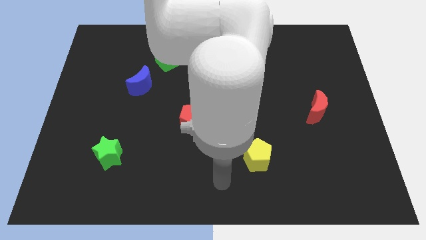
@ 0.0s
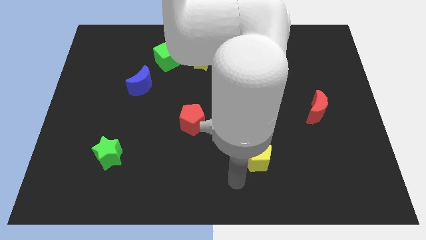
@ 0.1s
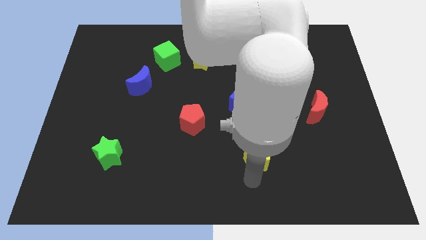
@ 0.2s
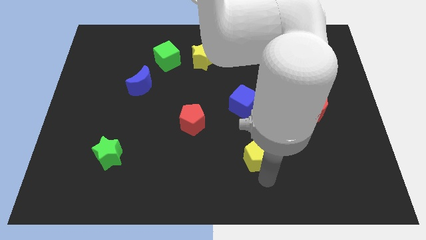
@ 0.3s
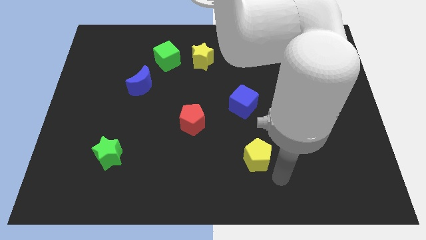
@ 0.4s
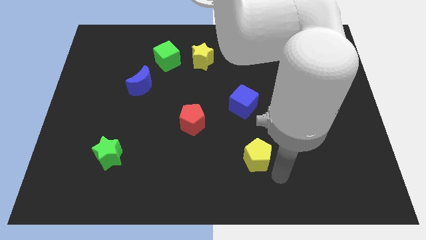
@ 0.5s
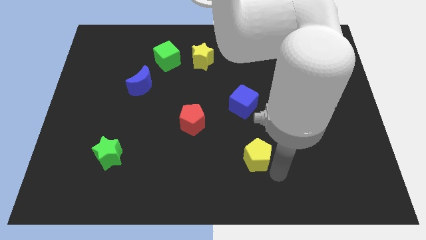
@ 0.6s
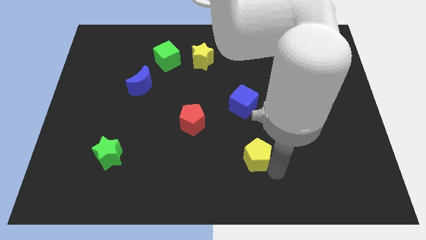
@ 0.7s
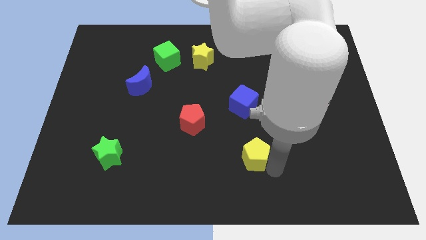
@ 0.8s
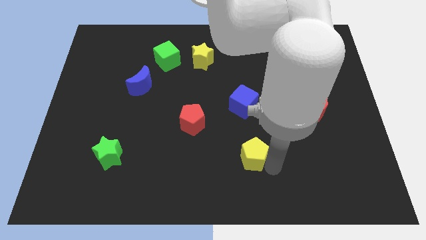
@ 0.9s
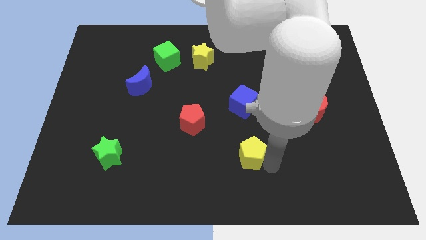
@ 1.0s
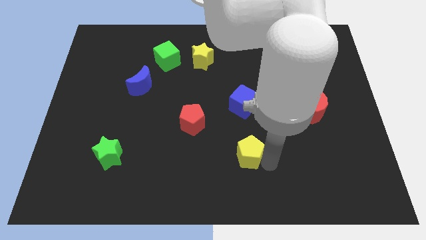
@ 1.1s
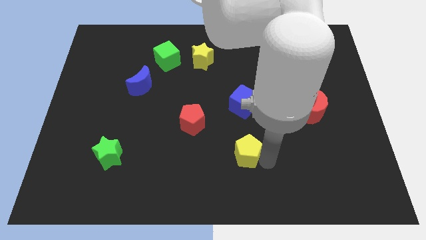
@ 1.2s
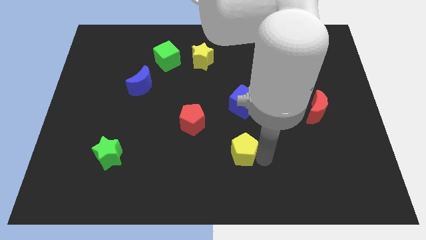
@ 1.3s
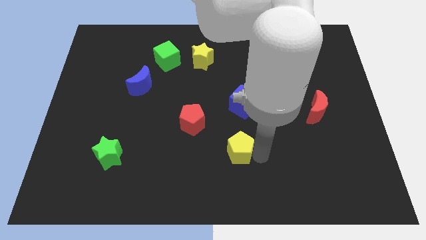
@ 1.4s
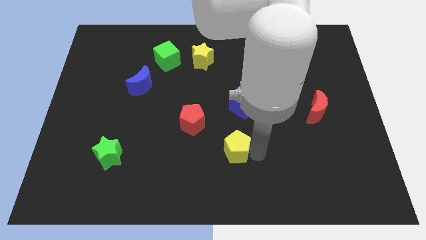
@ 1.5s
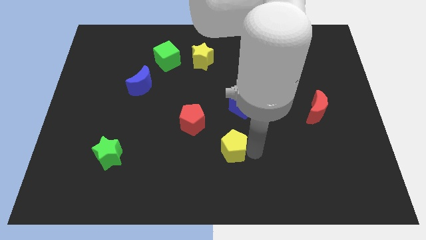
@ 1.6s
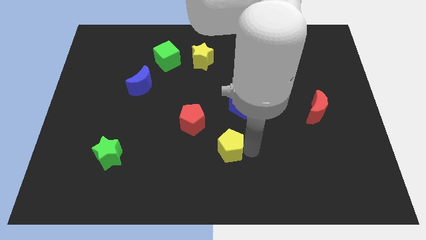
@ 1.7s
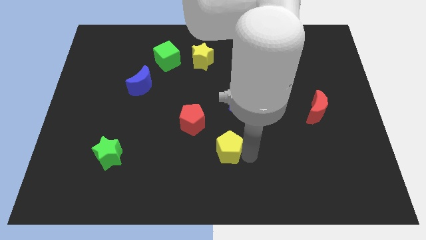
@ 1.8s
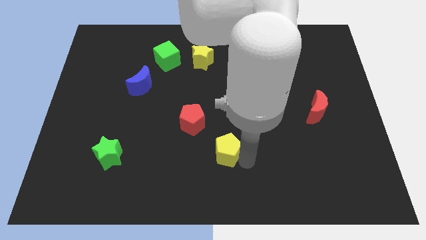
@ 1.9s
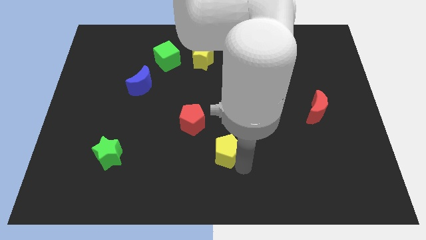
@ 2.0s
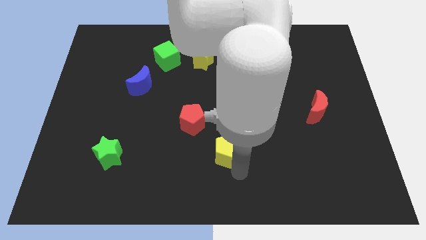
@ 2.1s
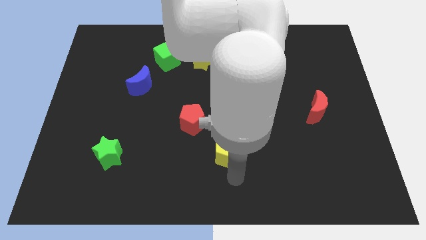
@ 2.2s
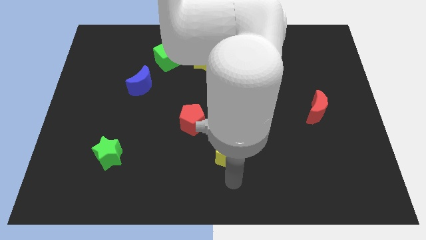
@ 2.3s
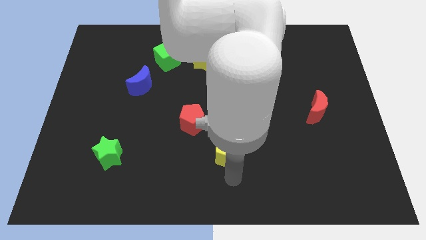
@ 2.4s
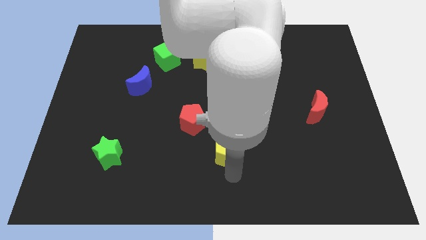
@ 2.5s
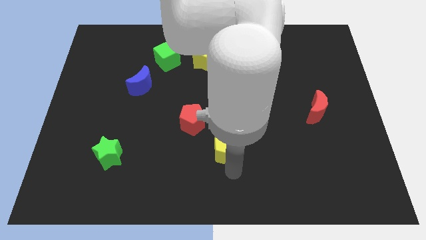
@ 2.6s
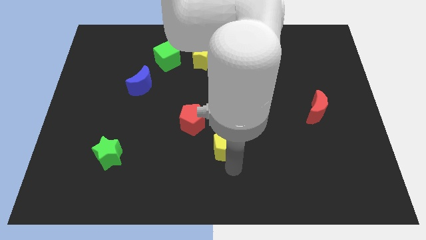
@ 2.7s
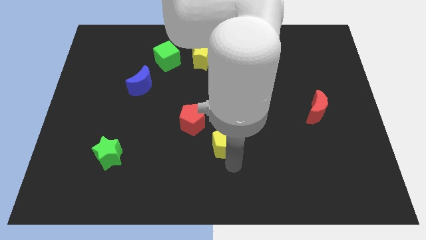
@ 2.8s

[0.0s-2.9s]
push the yellow pentagon up and to the left slightly

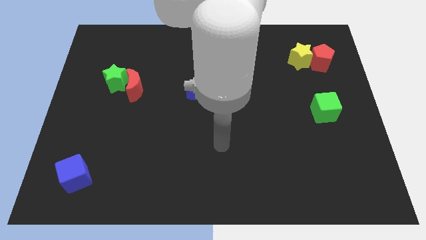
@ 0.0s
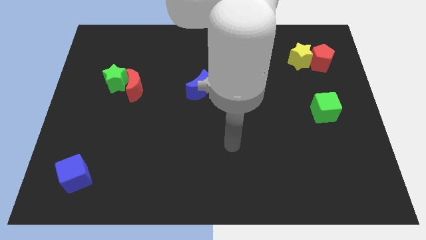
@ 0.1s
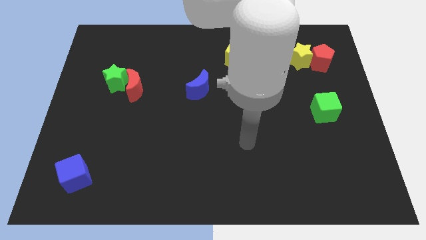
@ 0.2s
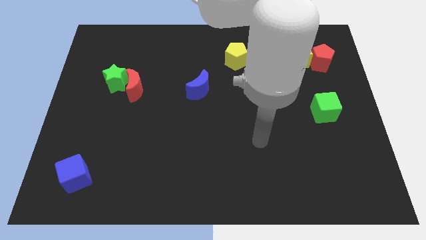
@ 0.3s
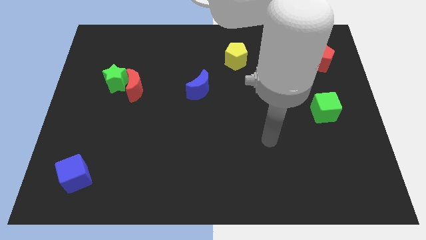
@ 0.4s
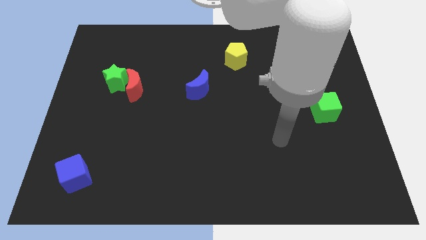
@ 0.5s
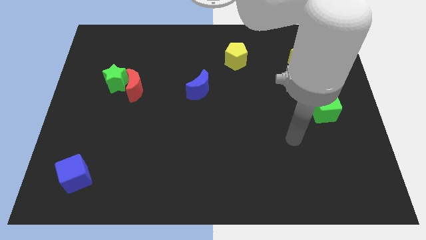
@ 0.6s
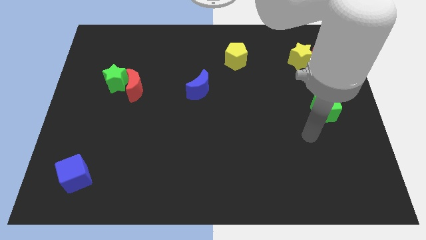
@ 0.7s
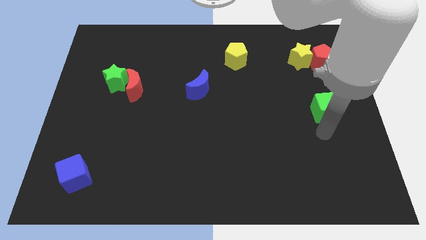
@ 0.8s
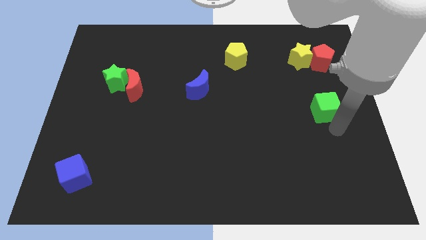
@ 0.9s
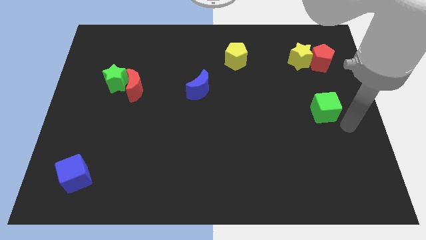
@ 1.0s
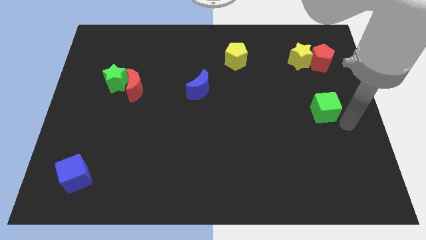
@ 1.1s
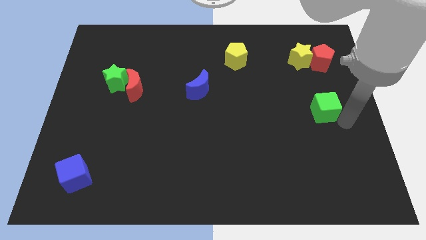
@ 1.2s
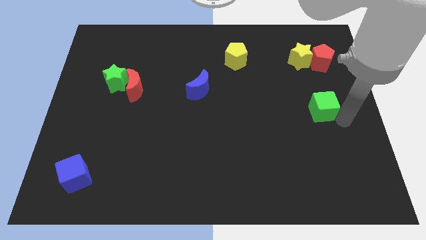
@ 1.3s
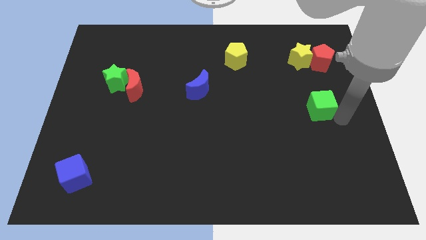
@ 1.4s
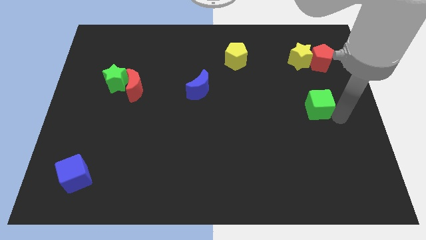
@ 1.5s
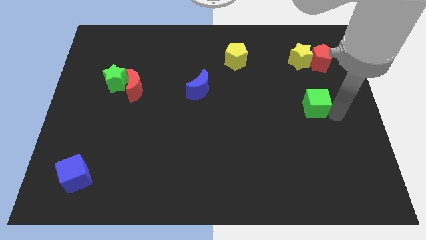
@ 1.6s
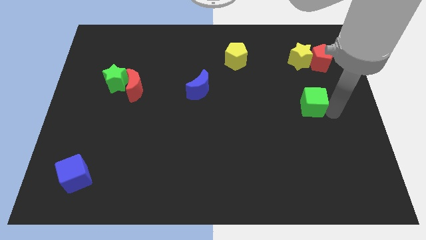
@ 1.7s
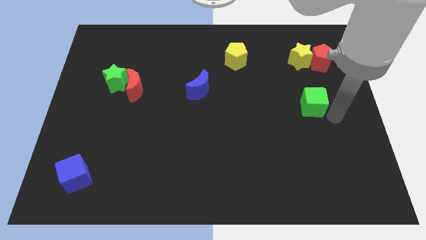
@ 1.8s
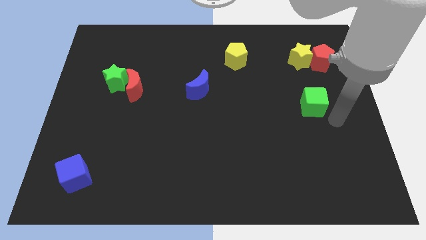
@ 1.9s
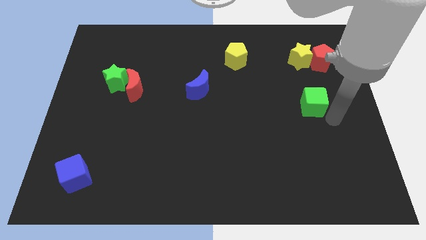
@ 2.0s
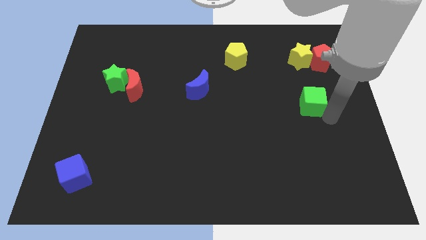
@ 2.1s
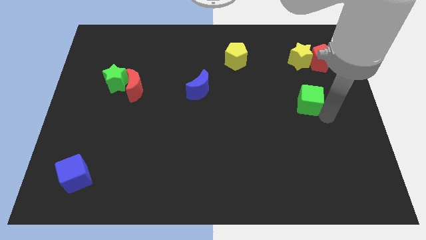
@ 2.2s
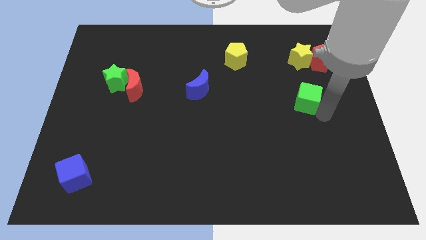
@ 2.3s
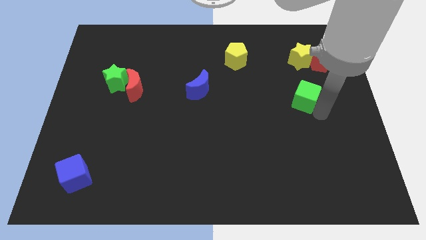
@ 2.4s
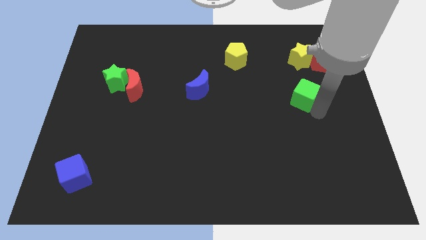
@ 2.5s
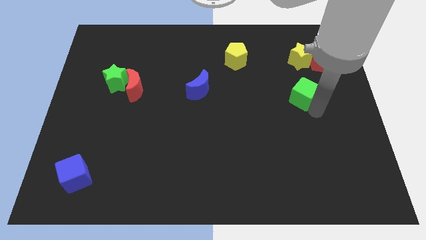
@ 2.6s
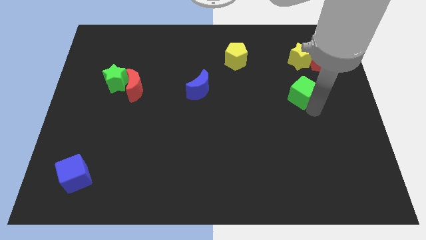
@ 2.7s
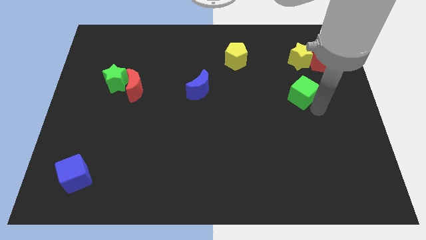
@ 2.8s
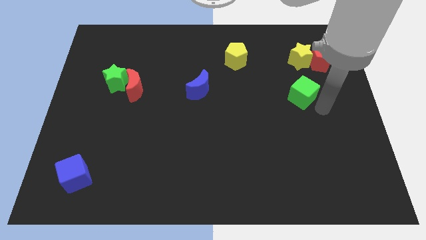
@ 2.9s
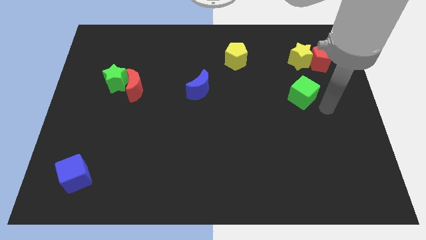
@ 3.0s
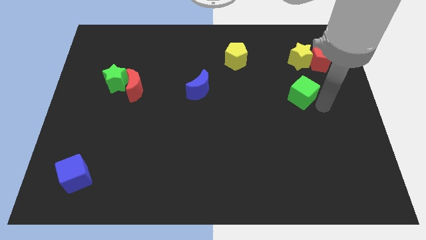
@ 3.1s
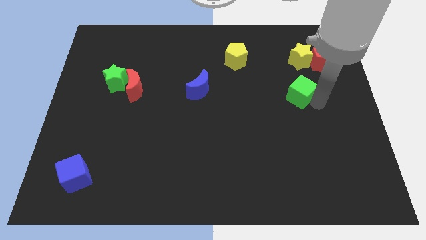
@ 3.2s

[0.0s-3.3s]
slightly slide the green cube diagonally upwards and to the left

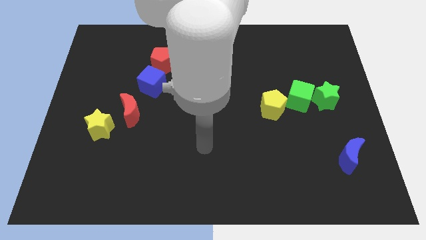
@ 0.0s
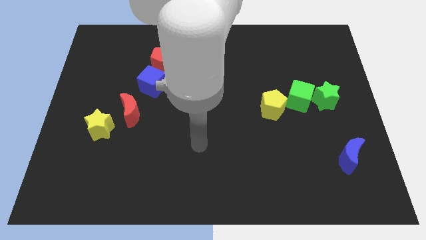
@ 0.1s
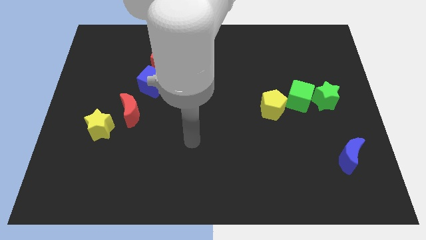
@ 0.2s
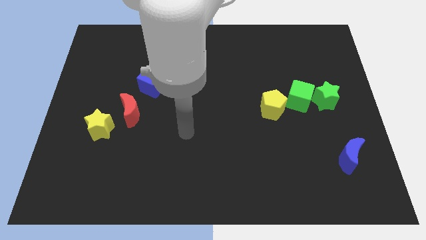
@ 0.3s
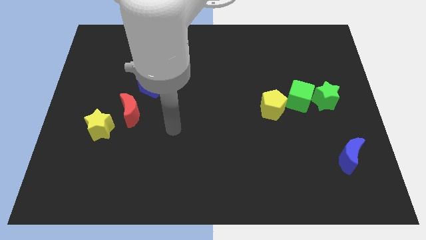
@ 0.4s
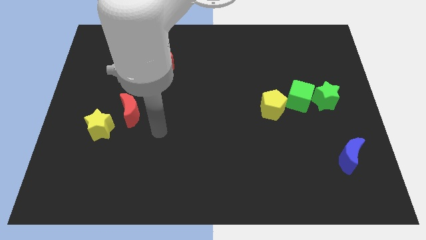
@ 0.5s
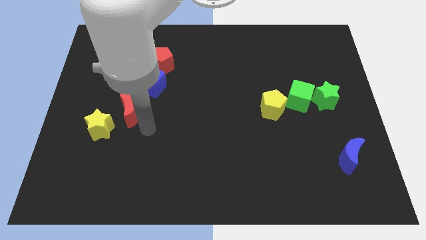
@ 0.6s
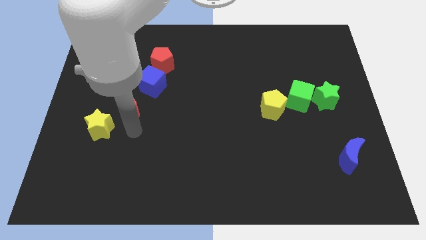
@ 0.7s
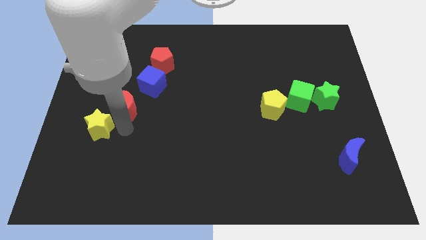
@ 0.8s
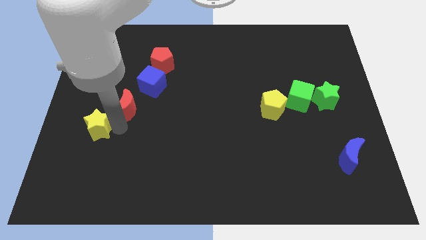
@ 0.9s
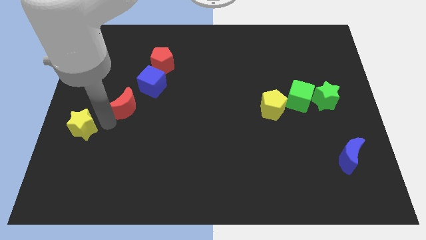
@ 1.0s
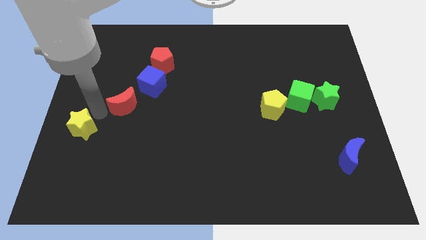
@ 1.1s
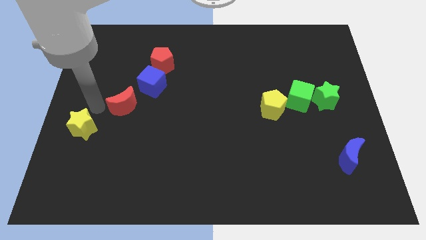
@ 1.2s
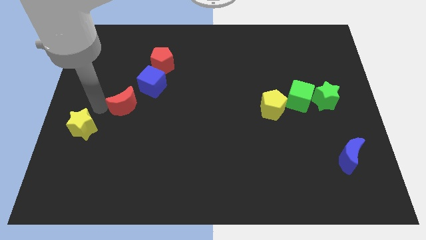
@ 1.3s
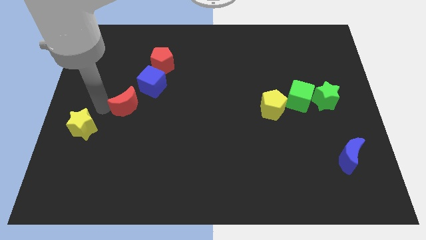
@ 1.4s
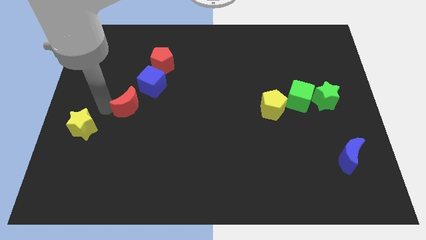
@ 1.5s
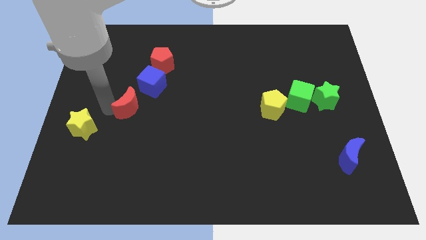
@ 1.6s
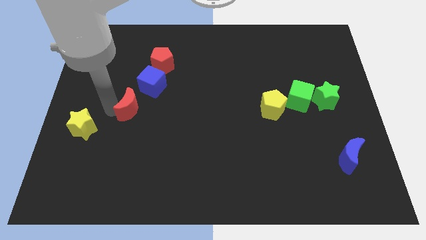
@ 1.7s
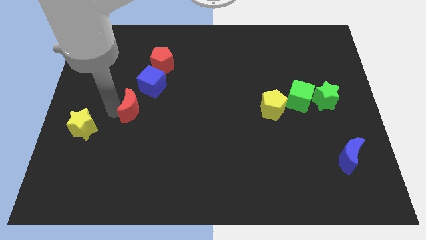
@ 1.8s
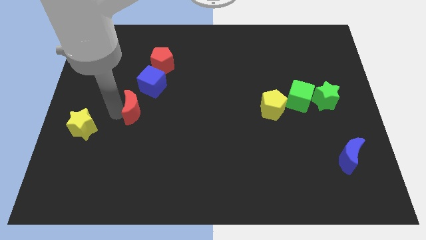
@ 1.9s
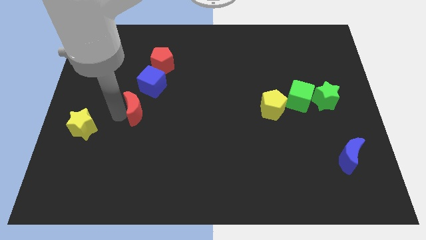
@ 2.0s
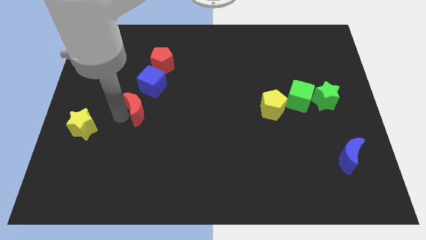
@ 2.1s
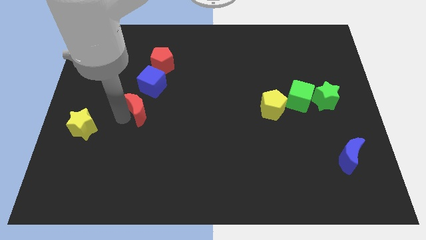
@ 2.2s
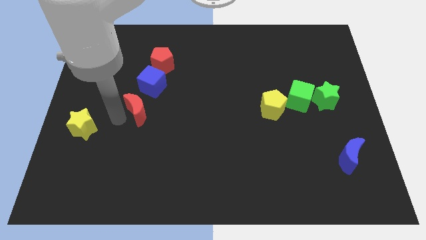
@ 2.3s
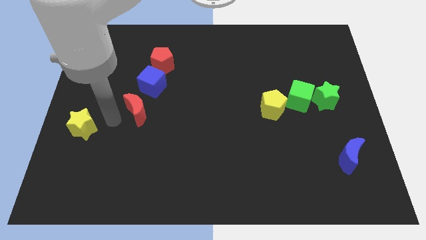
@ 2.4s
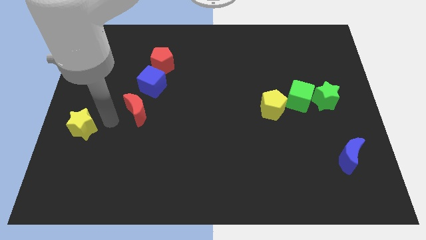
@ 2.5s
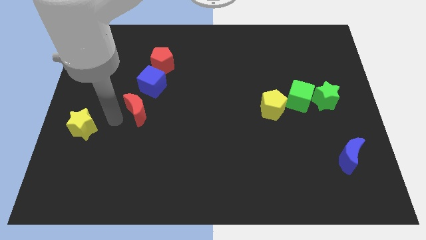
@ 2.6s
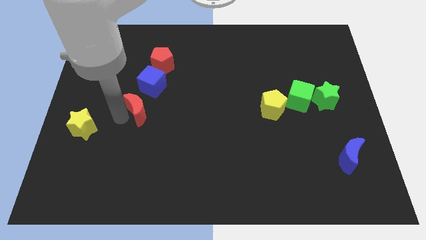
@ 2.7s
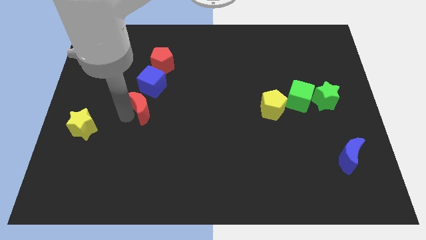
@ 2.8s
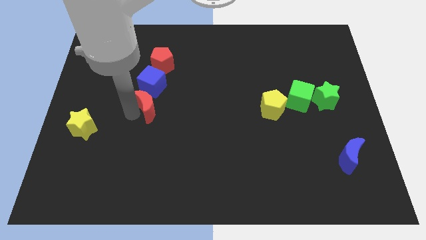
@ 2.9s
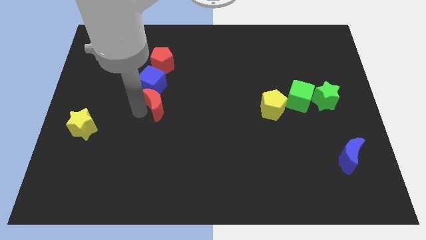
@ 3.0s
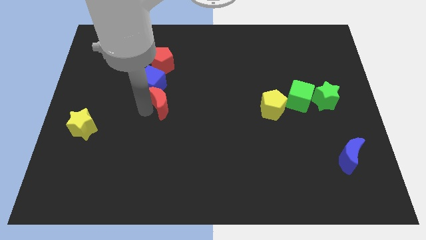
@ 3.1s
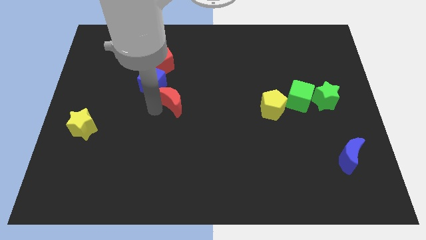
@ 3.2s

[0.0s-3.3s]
slide the red moon up and right somewhat
